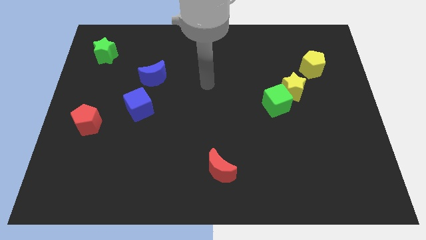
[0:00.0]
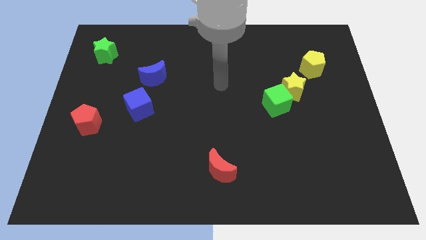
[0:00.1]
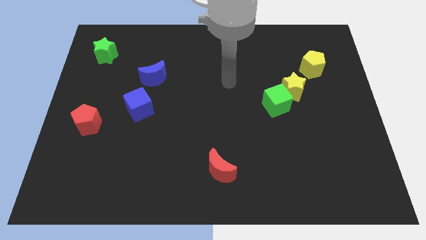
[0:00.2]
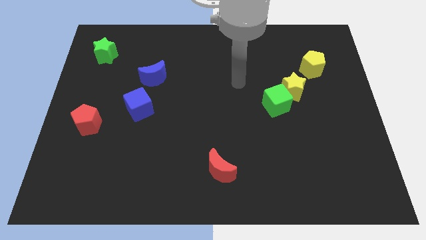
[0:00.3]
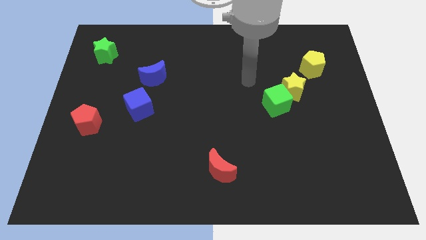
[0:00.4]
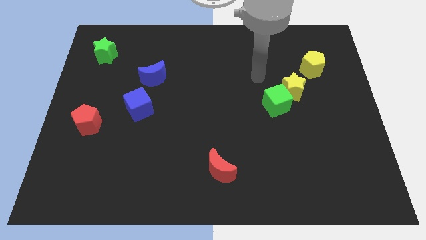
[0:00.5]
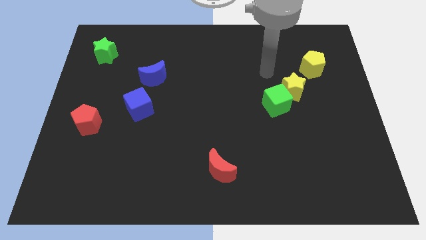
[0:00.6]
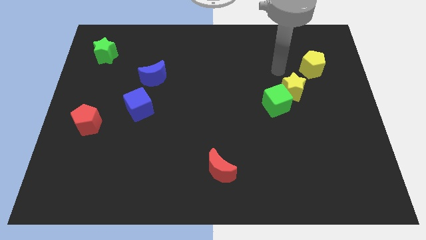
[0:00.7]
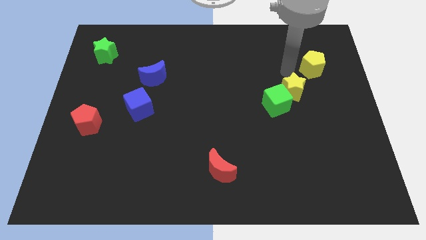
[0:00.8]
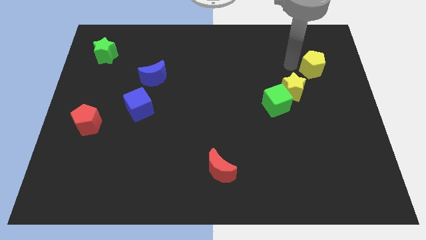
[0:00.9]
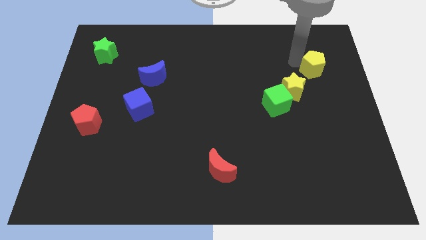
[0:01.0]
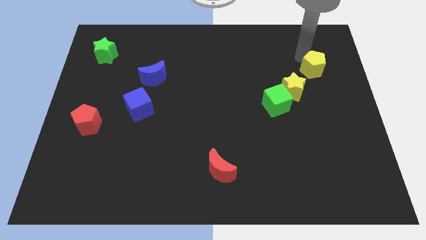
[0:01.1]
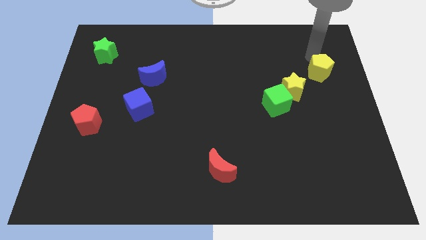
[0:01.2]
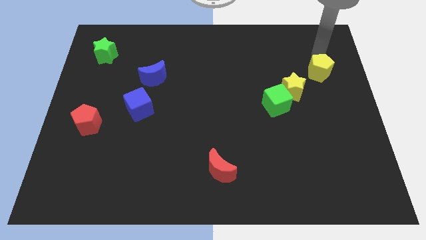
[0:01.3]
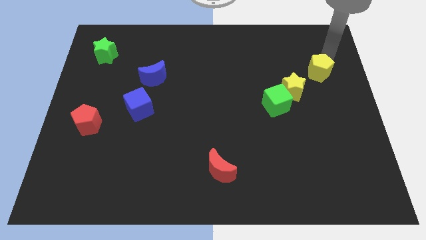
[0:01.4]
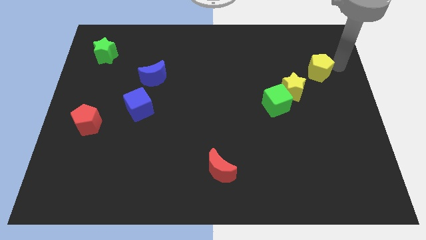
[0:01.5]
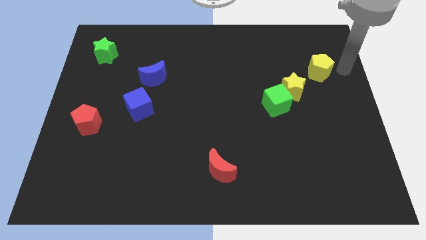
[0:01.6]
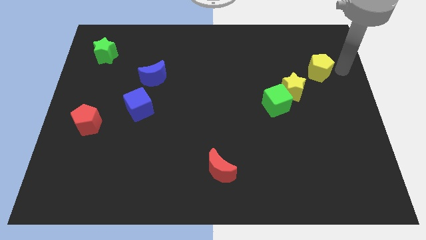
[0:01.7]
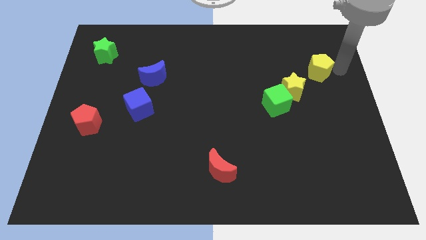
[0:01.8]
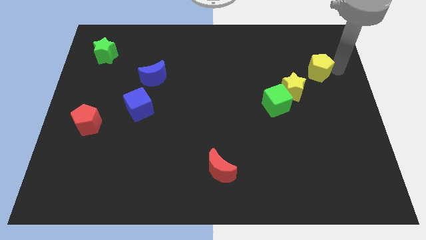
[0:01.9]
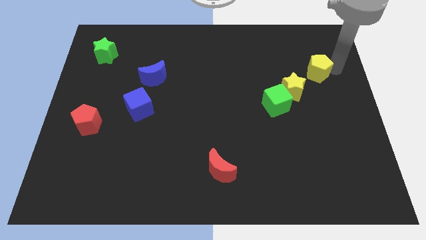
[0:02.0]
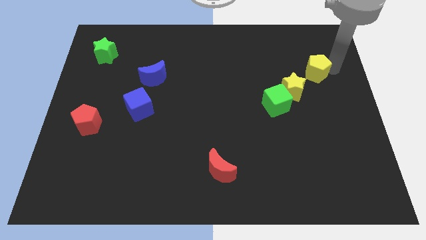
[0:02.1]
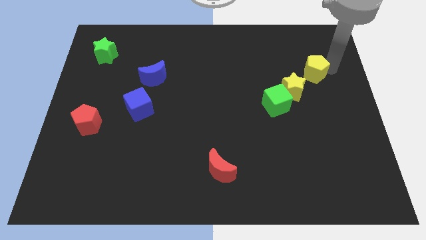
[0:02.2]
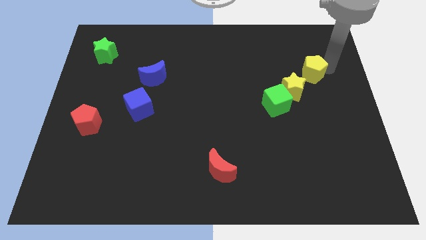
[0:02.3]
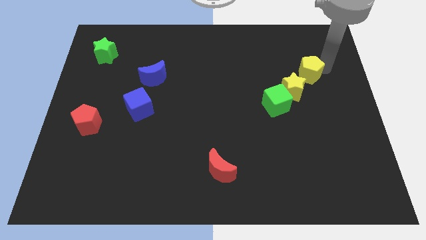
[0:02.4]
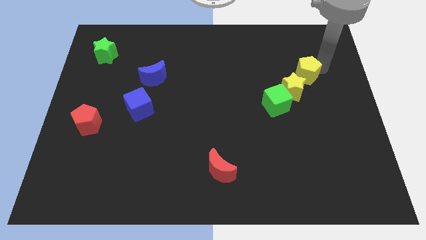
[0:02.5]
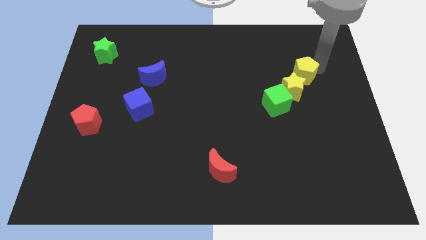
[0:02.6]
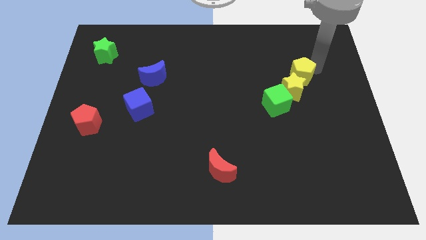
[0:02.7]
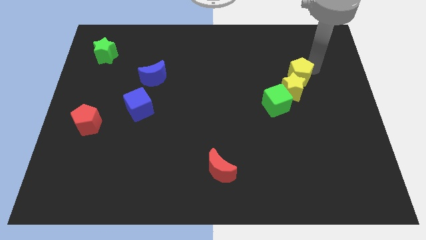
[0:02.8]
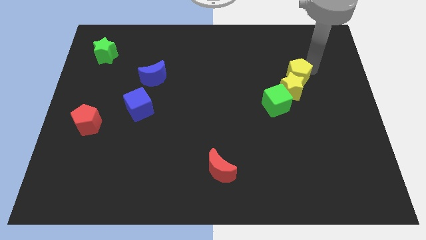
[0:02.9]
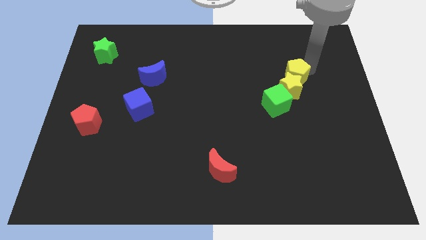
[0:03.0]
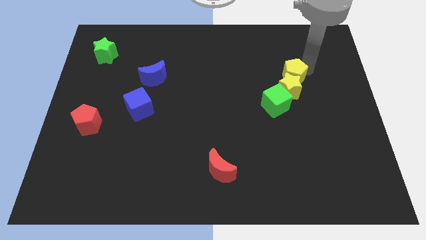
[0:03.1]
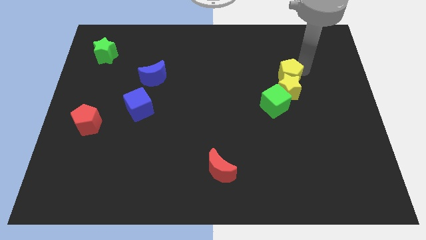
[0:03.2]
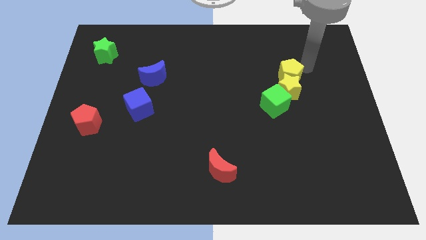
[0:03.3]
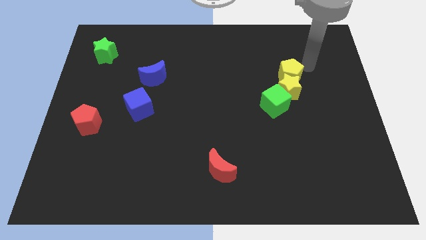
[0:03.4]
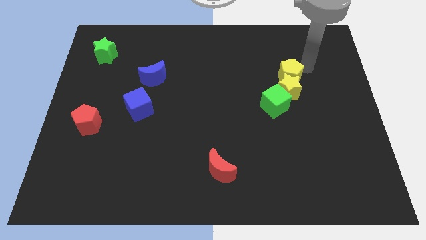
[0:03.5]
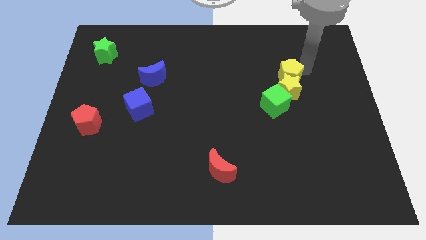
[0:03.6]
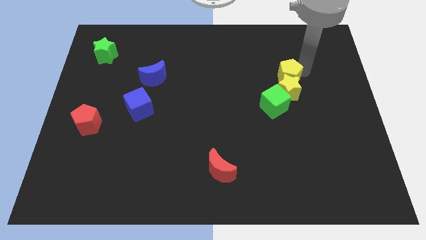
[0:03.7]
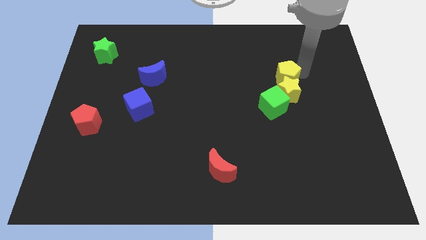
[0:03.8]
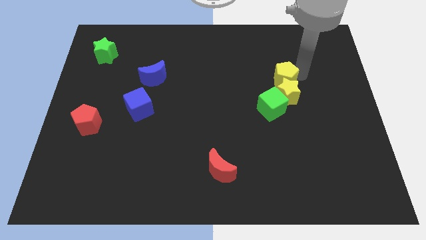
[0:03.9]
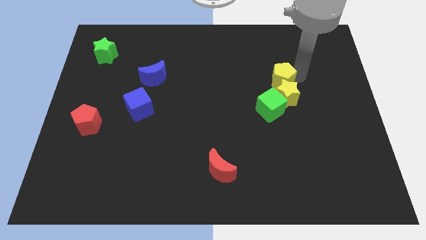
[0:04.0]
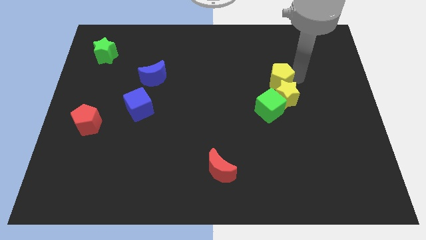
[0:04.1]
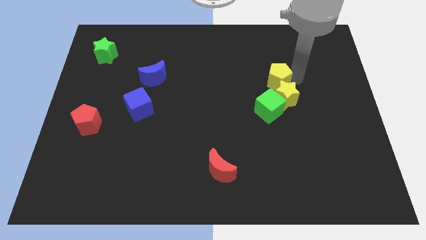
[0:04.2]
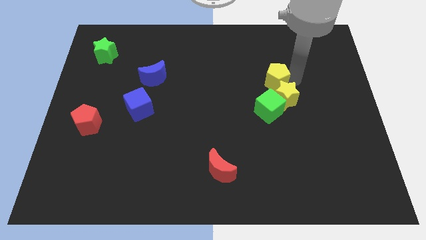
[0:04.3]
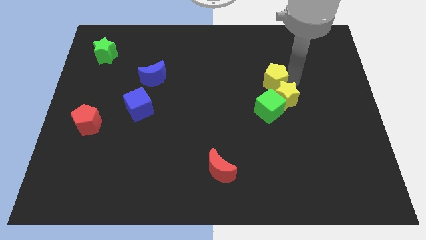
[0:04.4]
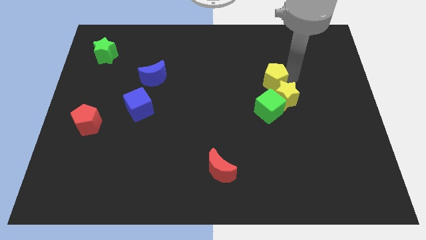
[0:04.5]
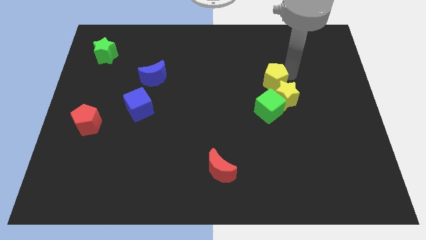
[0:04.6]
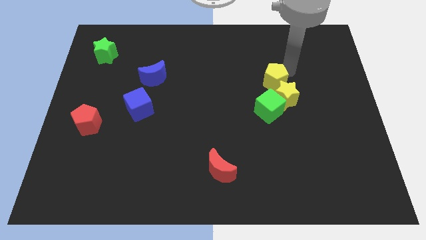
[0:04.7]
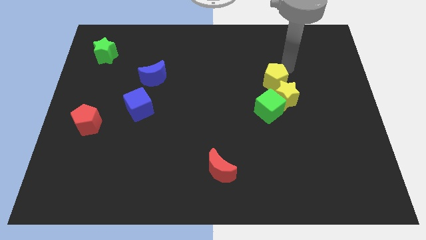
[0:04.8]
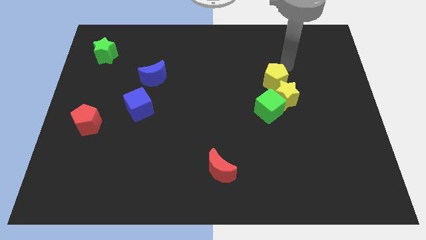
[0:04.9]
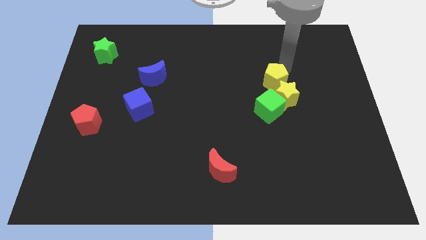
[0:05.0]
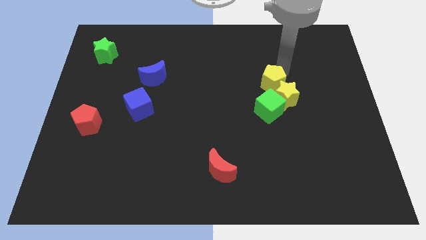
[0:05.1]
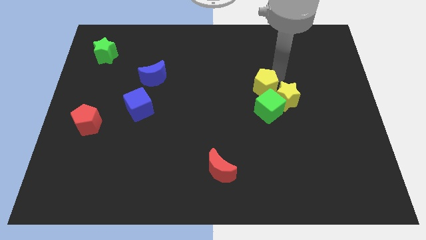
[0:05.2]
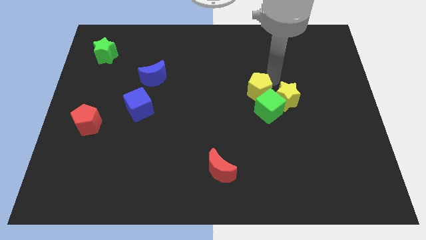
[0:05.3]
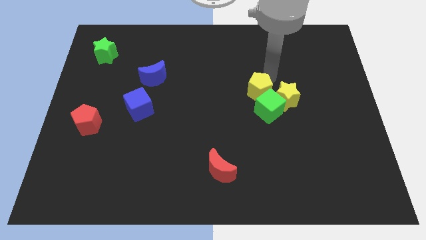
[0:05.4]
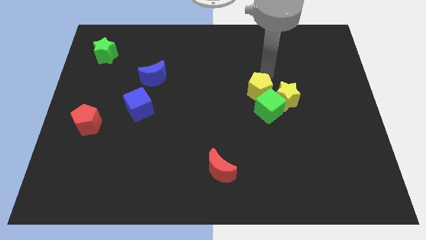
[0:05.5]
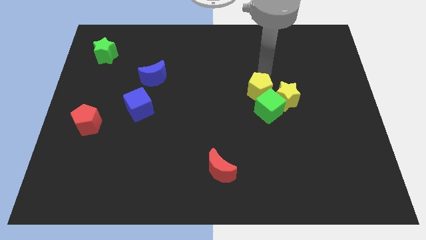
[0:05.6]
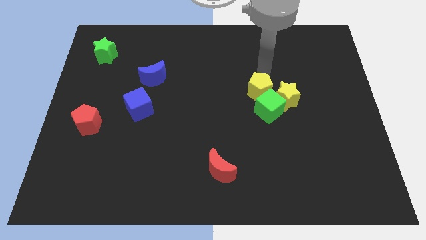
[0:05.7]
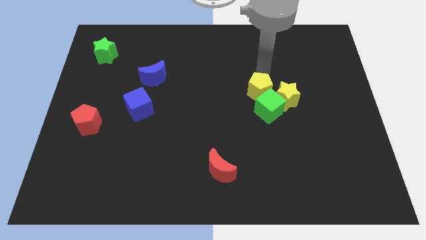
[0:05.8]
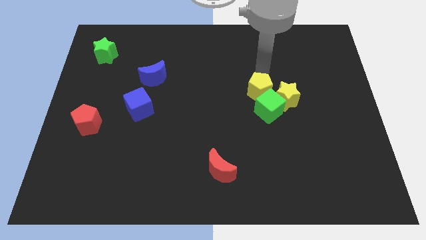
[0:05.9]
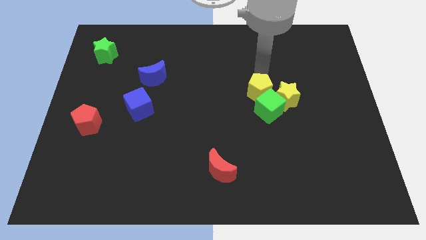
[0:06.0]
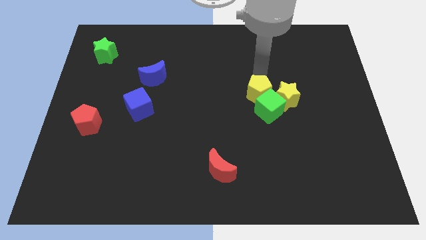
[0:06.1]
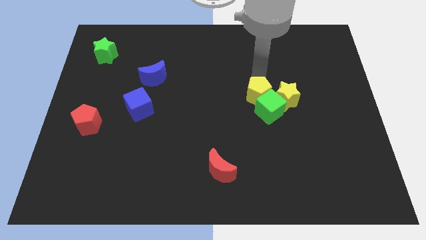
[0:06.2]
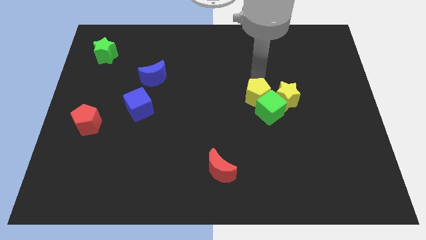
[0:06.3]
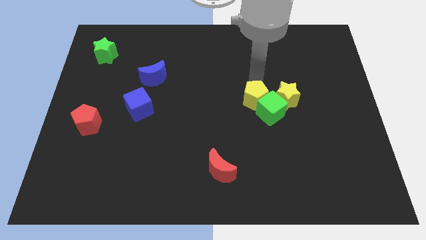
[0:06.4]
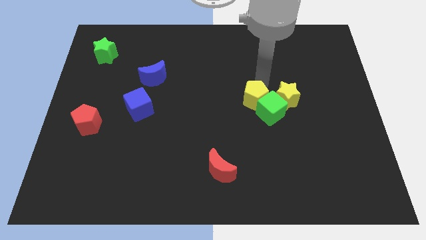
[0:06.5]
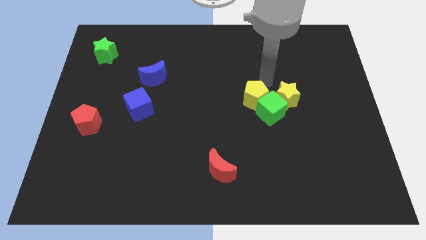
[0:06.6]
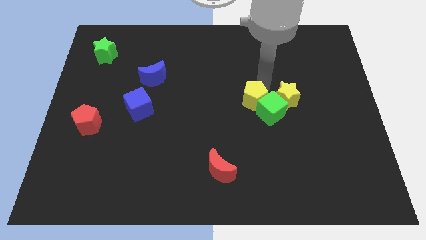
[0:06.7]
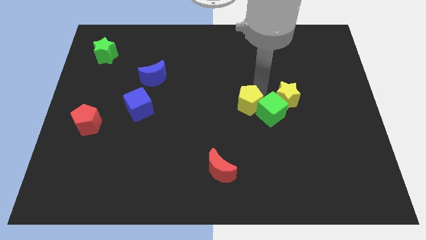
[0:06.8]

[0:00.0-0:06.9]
slide the yellow pentagon down and to the left diagonally

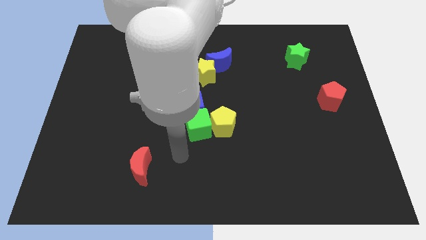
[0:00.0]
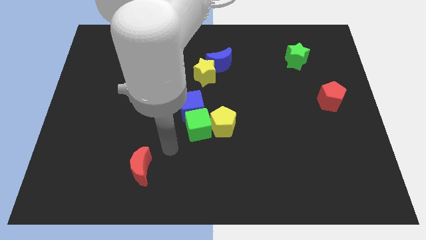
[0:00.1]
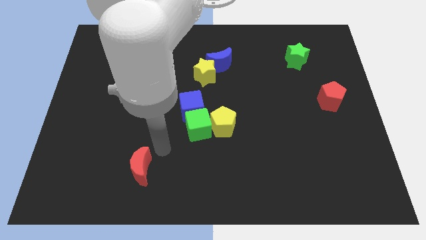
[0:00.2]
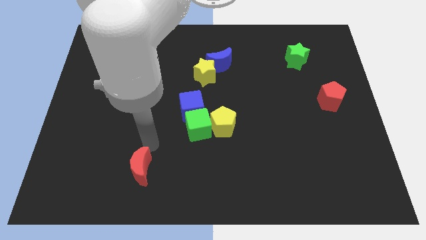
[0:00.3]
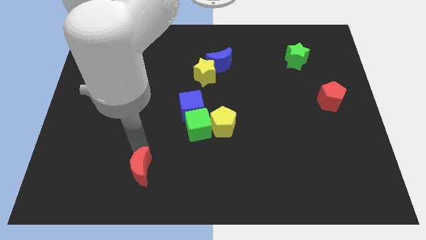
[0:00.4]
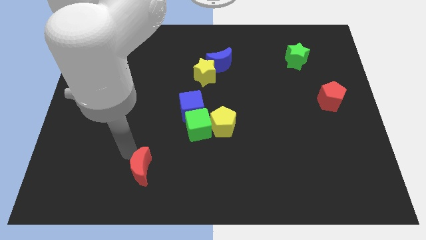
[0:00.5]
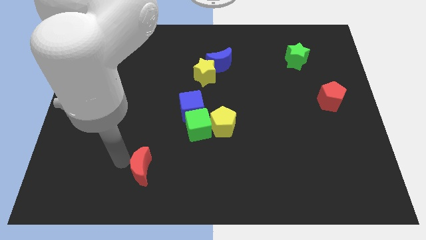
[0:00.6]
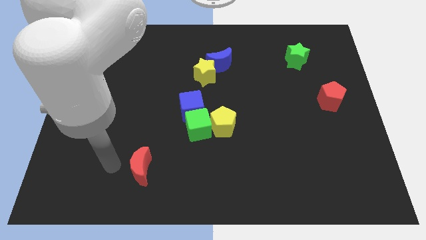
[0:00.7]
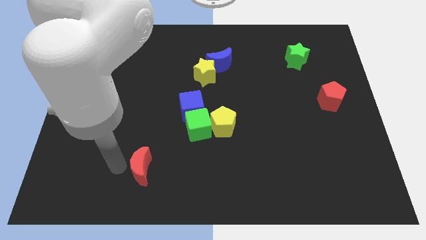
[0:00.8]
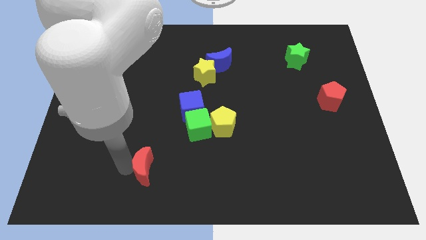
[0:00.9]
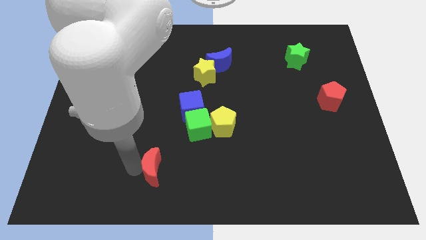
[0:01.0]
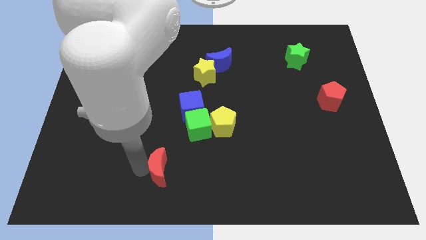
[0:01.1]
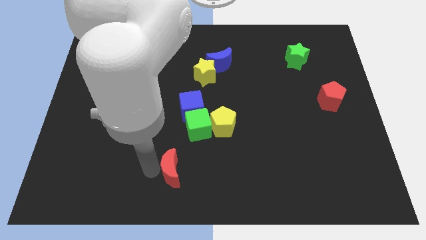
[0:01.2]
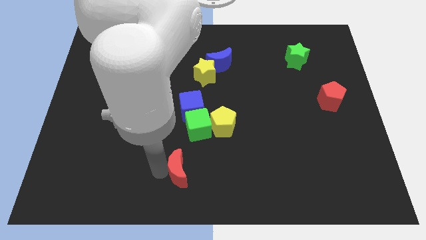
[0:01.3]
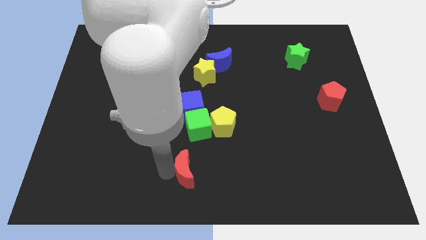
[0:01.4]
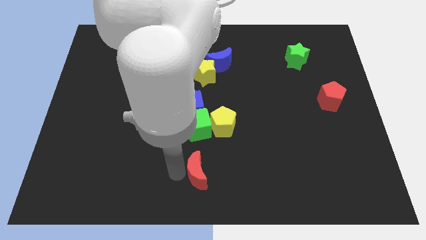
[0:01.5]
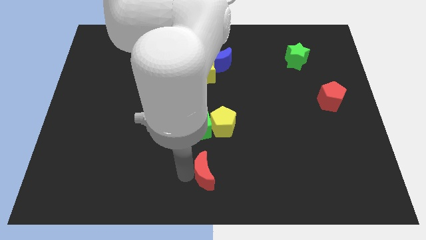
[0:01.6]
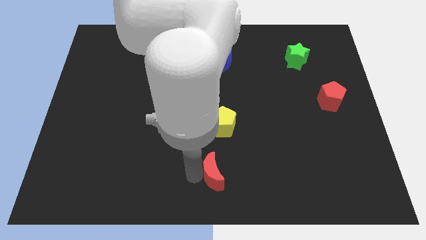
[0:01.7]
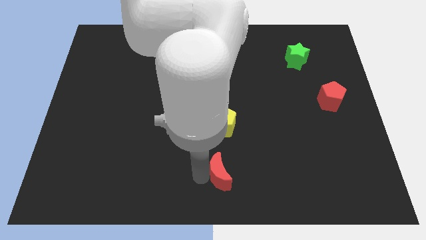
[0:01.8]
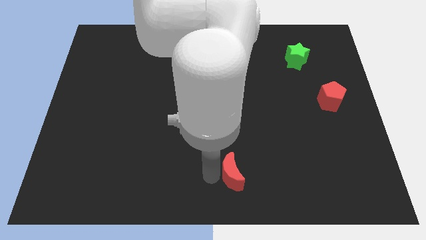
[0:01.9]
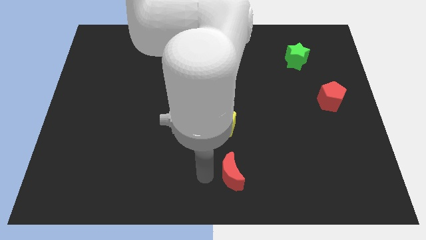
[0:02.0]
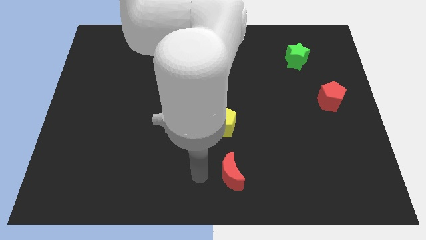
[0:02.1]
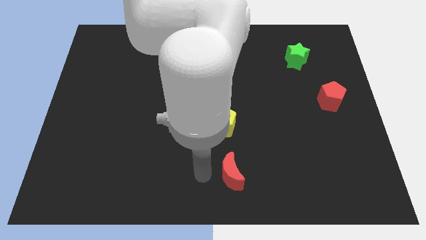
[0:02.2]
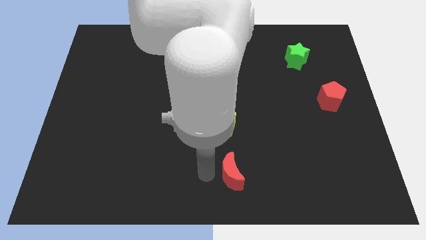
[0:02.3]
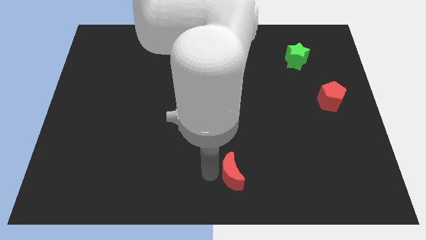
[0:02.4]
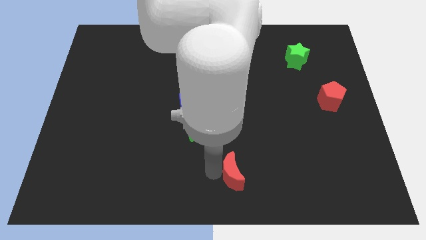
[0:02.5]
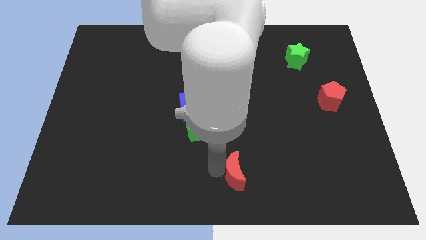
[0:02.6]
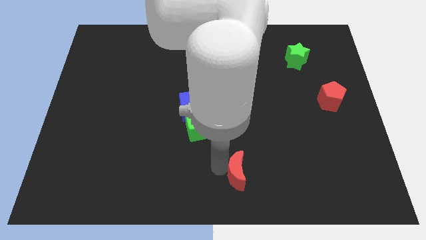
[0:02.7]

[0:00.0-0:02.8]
push the red moon to the right
